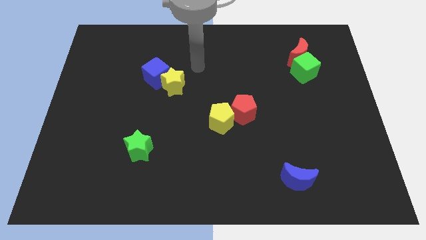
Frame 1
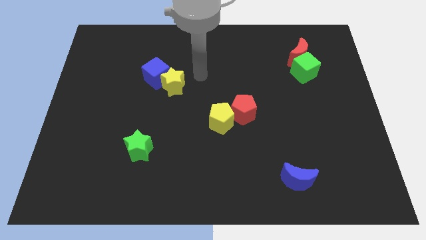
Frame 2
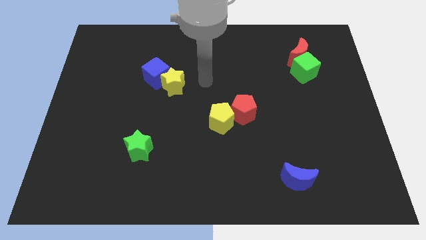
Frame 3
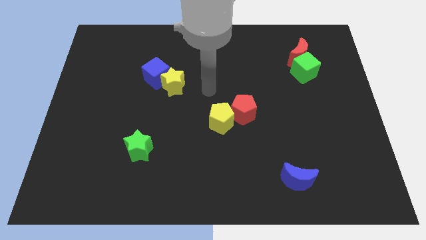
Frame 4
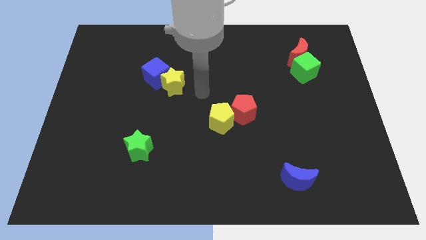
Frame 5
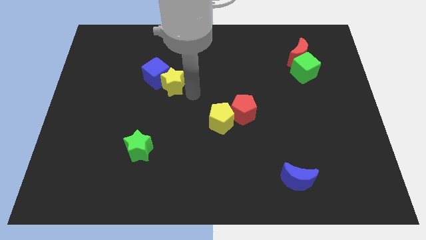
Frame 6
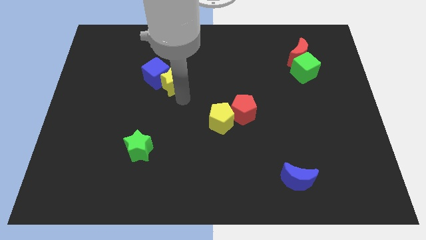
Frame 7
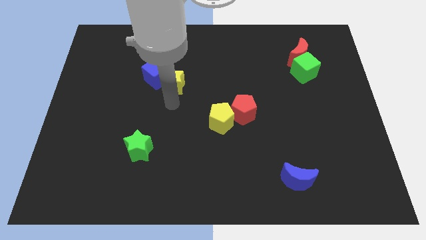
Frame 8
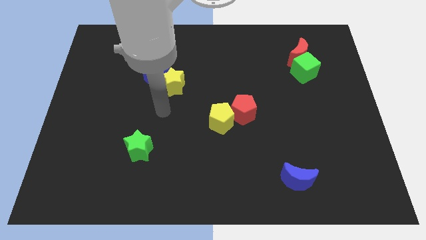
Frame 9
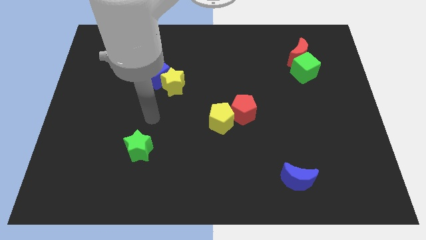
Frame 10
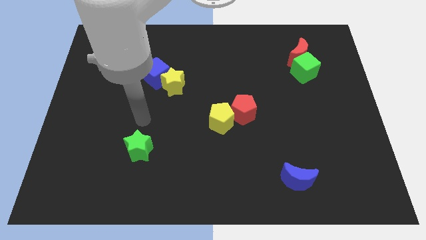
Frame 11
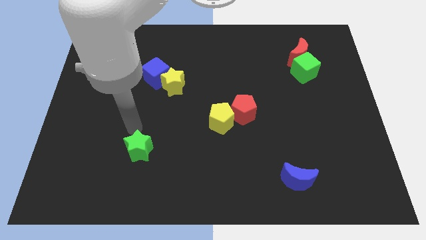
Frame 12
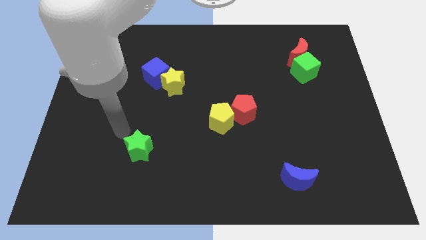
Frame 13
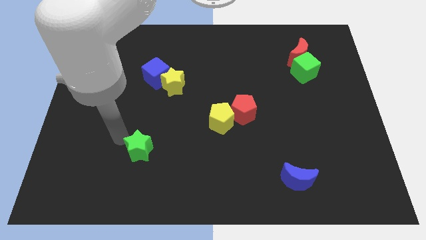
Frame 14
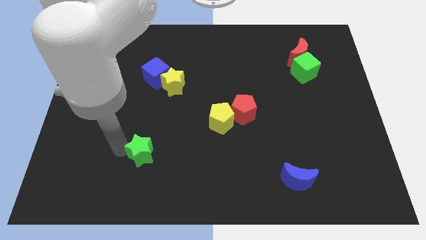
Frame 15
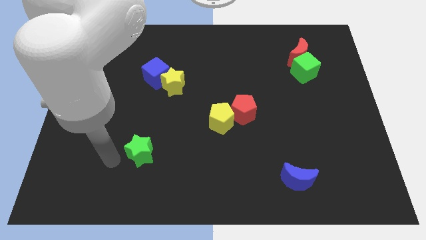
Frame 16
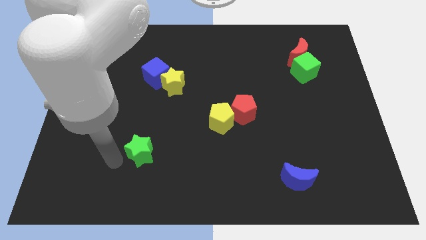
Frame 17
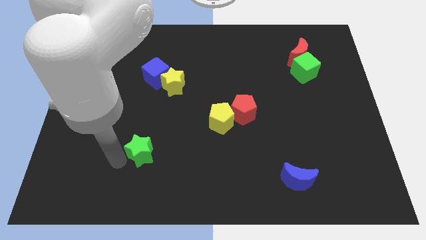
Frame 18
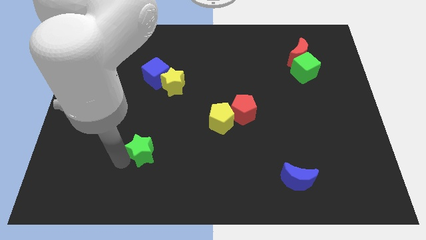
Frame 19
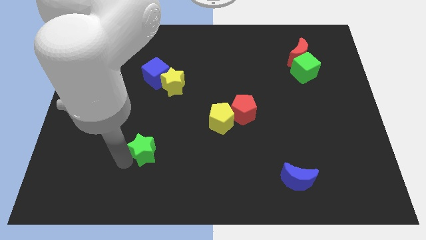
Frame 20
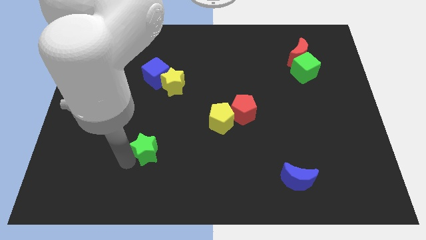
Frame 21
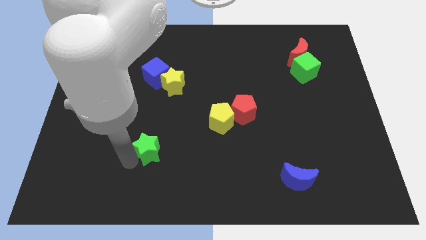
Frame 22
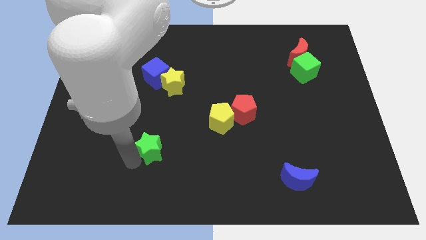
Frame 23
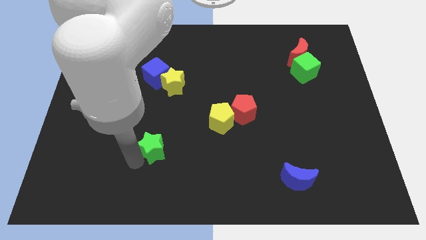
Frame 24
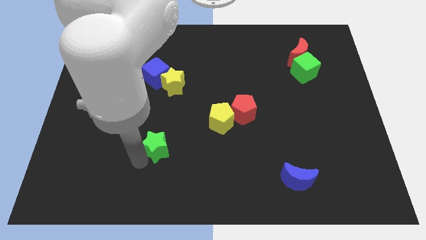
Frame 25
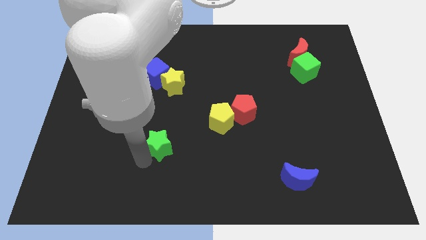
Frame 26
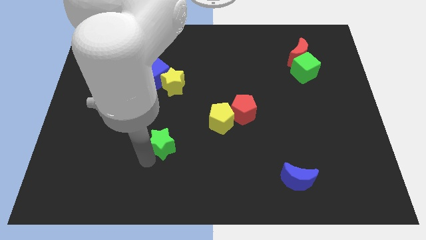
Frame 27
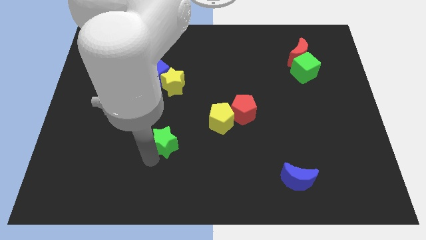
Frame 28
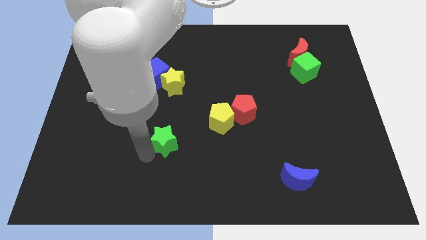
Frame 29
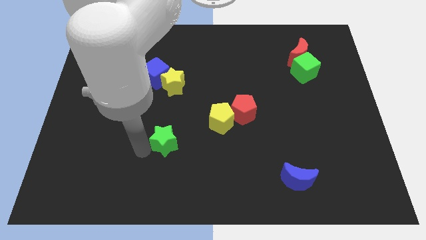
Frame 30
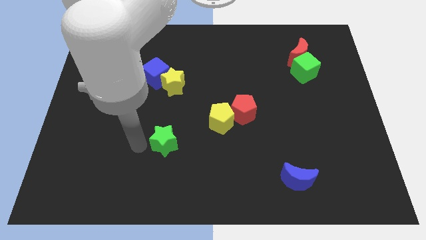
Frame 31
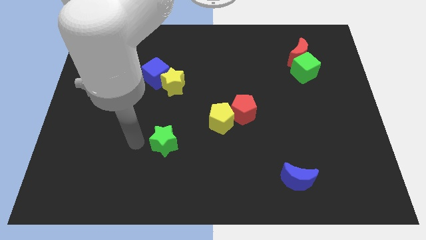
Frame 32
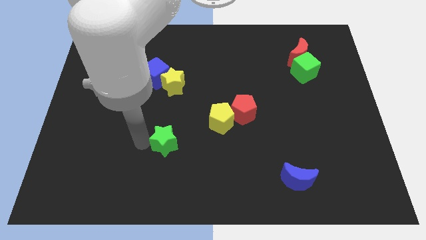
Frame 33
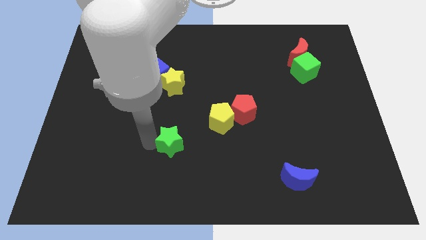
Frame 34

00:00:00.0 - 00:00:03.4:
move the green star right somewhat

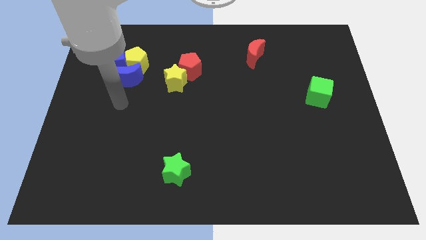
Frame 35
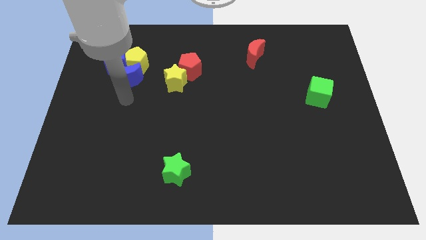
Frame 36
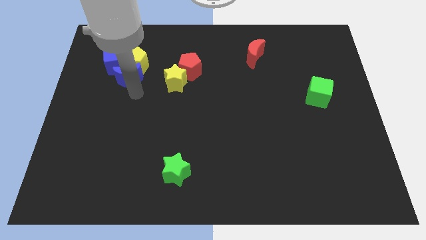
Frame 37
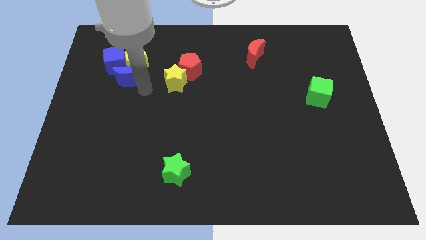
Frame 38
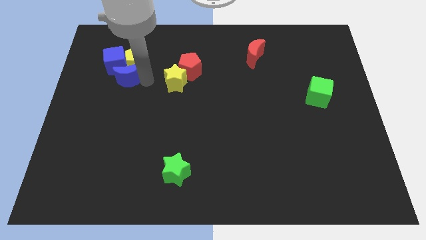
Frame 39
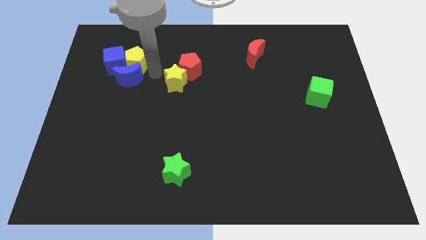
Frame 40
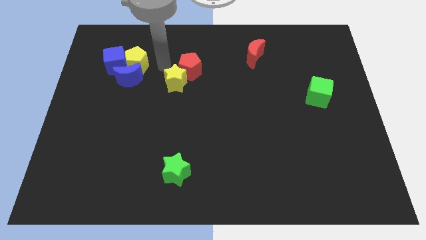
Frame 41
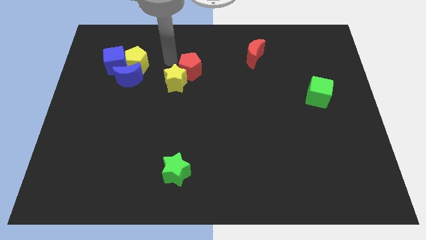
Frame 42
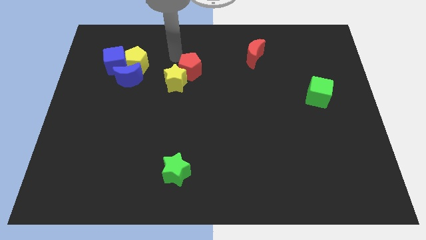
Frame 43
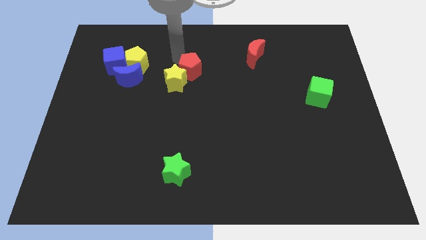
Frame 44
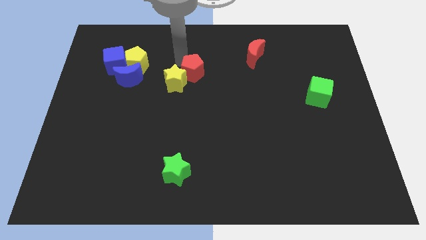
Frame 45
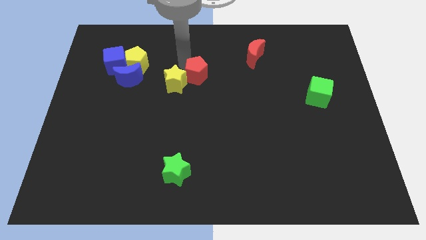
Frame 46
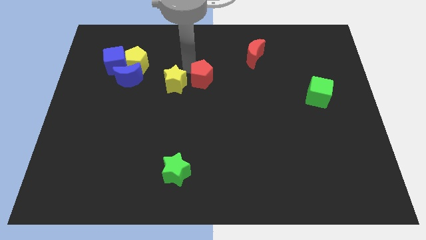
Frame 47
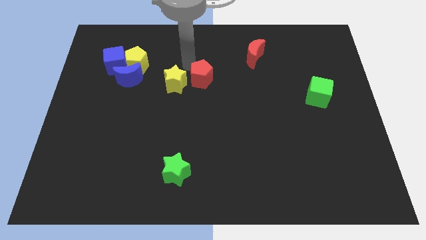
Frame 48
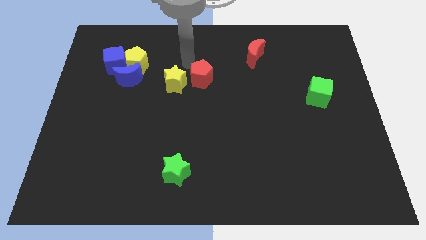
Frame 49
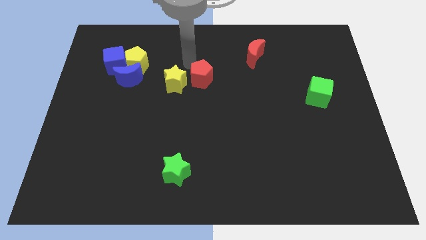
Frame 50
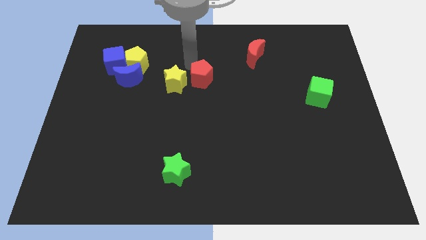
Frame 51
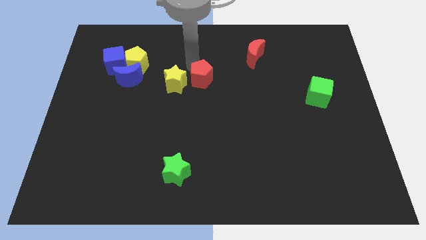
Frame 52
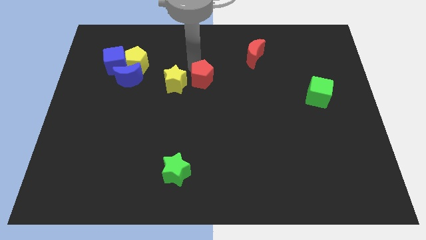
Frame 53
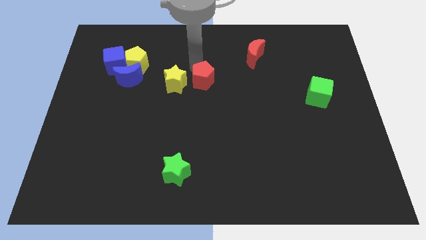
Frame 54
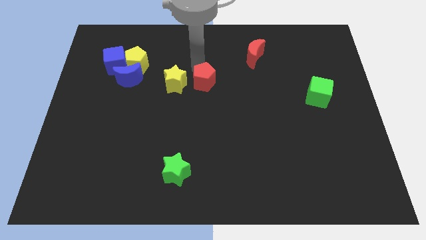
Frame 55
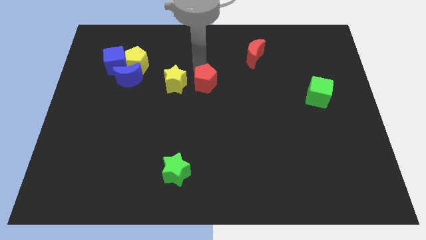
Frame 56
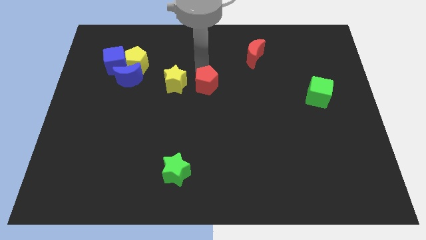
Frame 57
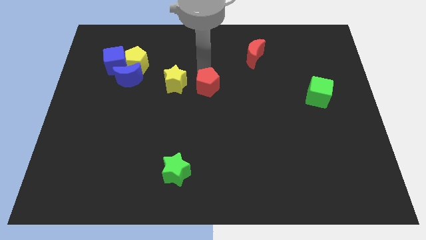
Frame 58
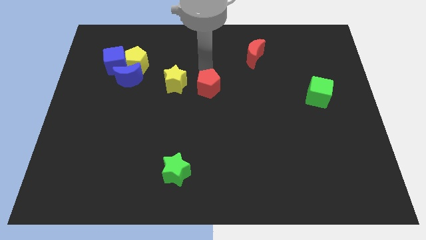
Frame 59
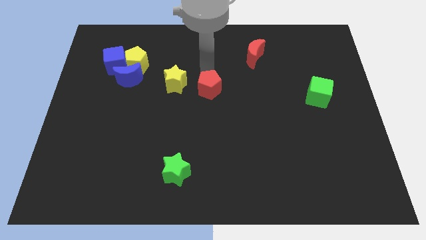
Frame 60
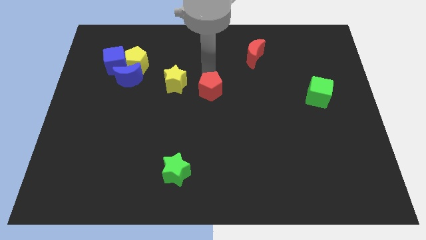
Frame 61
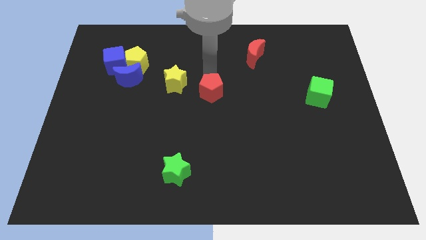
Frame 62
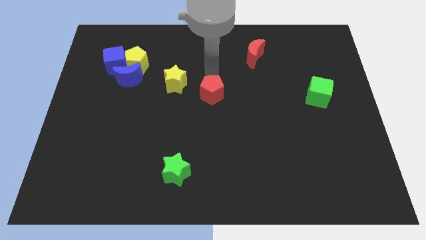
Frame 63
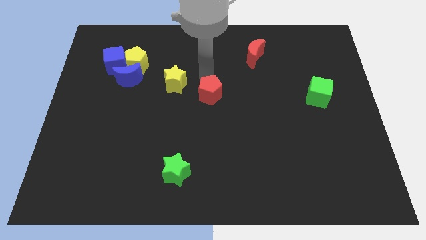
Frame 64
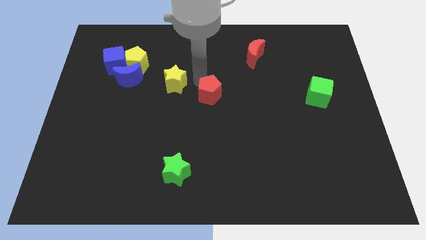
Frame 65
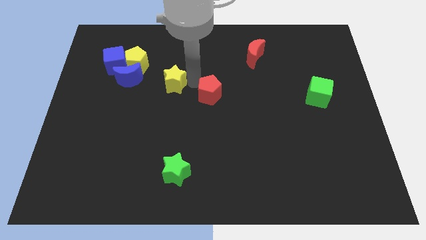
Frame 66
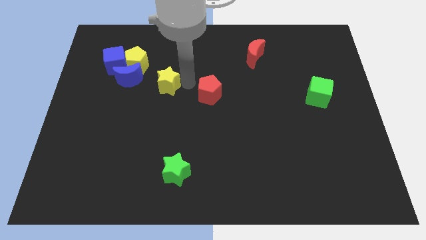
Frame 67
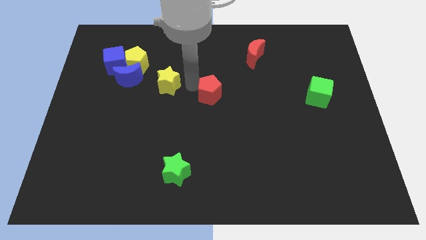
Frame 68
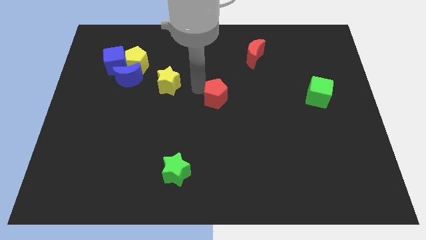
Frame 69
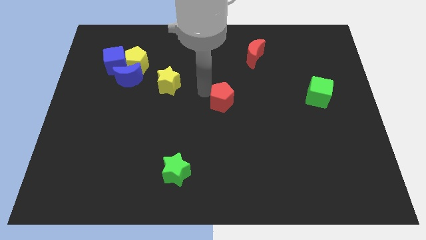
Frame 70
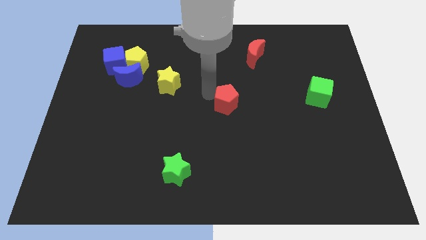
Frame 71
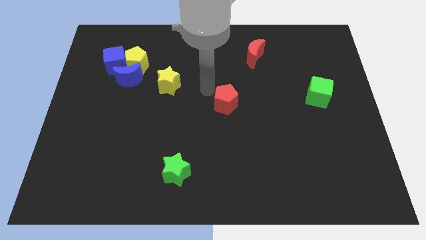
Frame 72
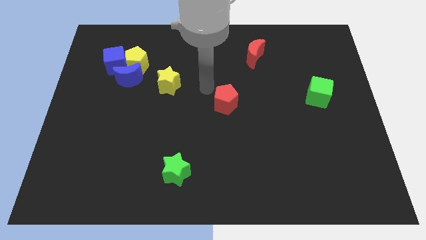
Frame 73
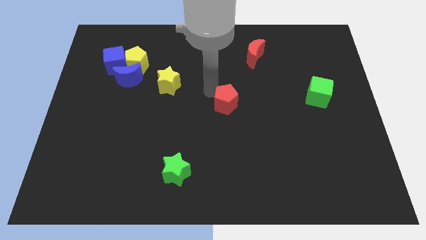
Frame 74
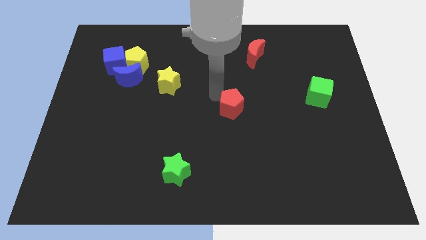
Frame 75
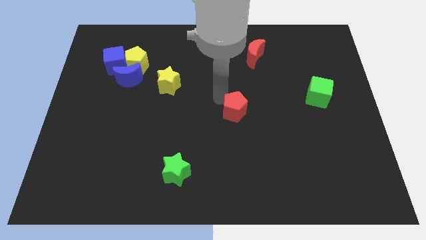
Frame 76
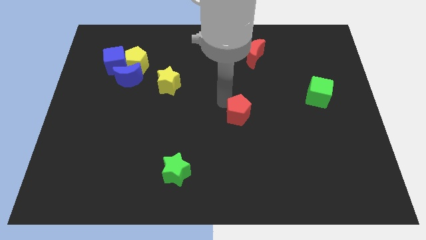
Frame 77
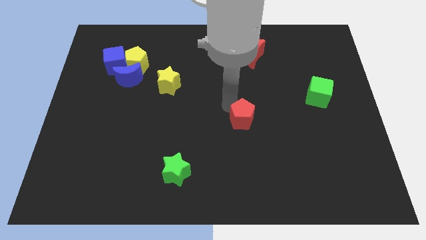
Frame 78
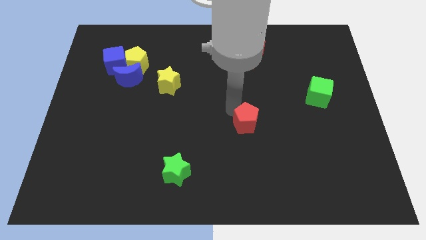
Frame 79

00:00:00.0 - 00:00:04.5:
push the red pentagon diagonally downwards and to the right

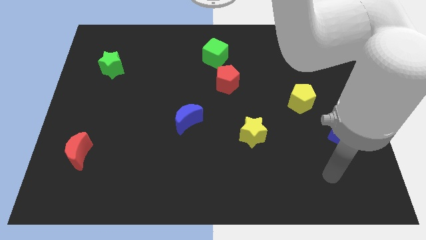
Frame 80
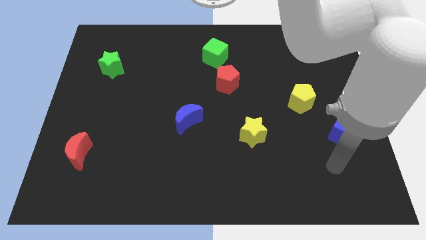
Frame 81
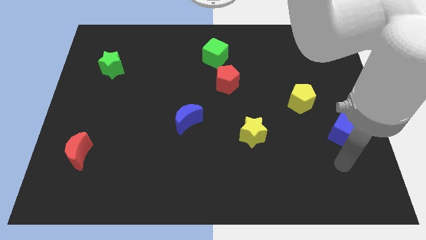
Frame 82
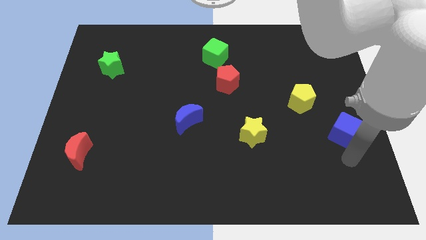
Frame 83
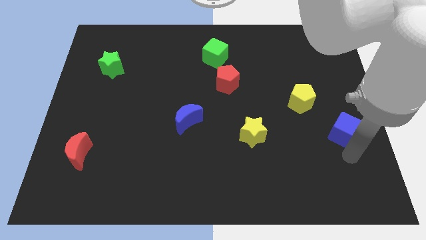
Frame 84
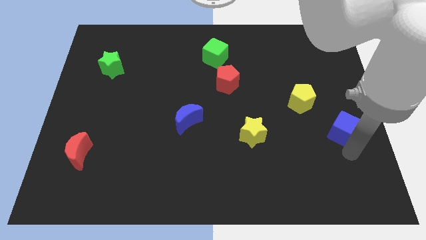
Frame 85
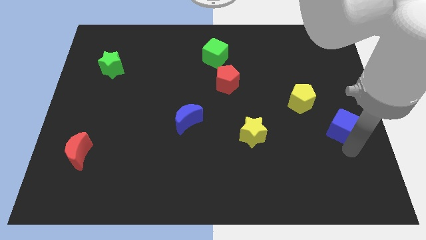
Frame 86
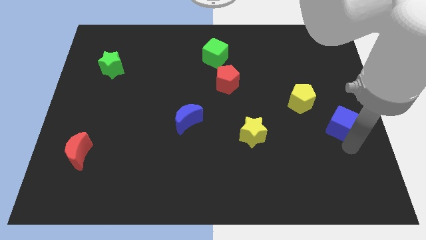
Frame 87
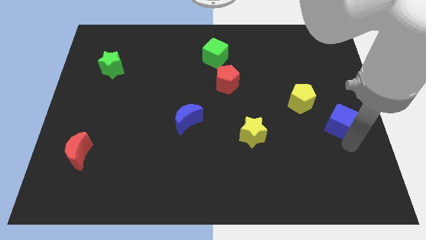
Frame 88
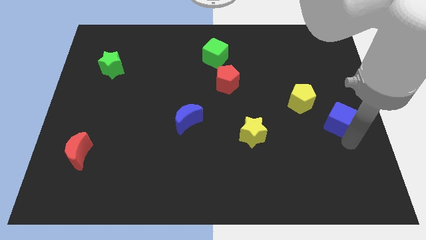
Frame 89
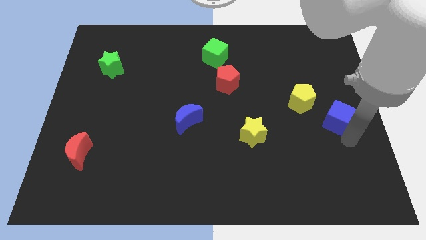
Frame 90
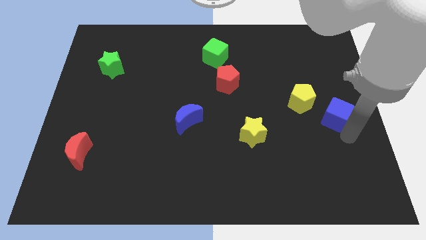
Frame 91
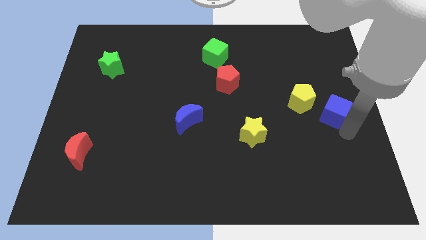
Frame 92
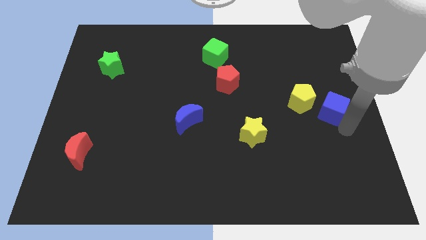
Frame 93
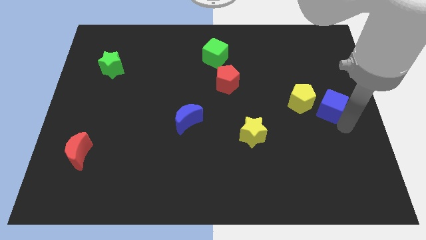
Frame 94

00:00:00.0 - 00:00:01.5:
slide the blue cube a little upwards
